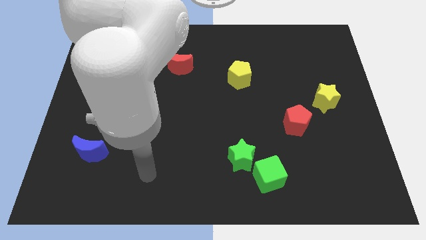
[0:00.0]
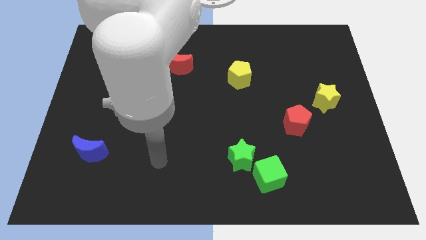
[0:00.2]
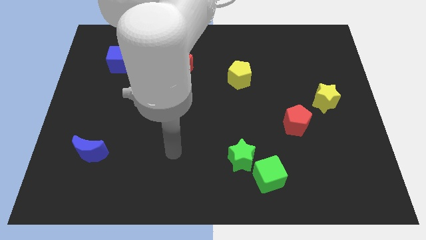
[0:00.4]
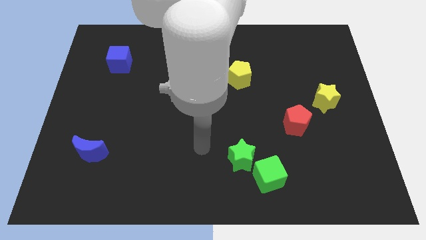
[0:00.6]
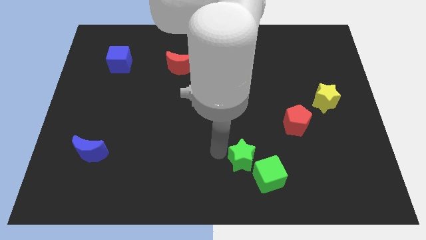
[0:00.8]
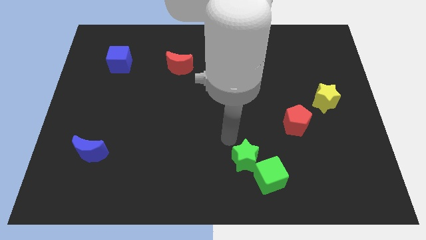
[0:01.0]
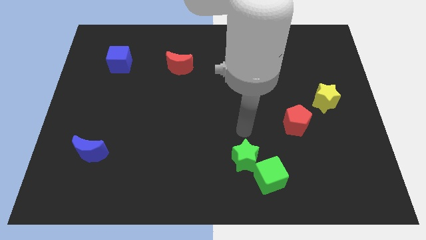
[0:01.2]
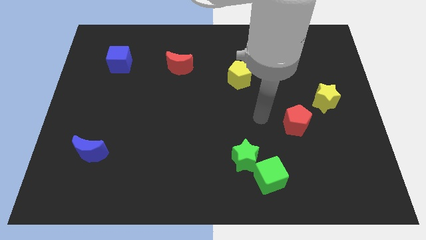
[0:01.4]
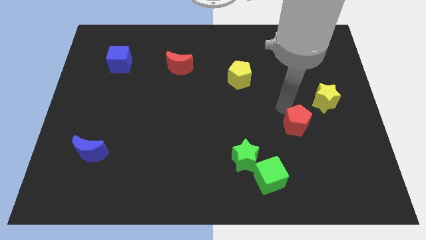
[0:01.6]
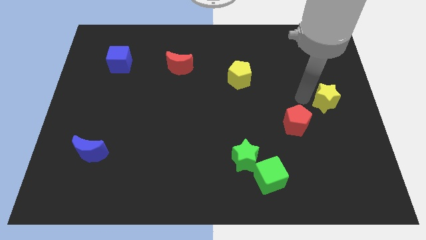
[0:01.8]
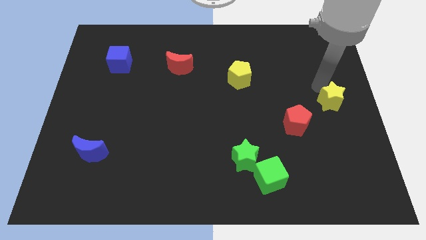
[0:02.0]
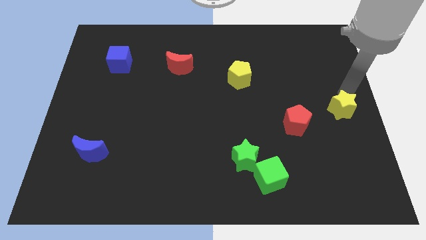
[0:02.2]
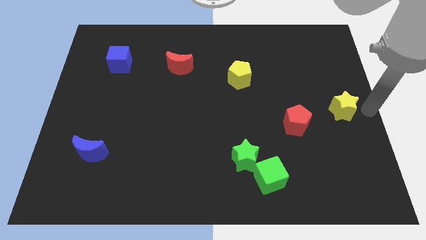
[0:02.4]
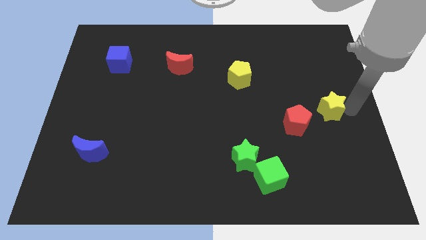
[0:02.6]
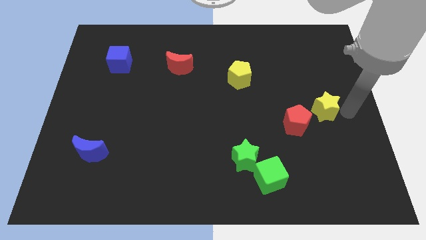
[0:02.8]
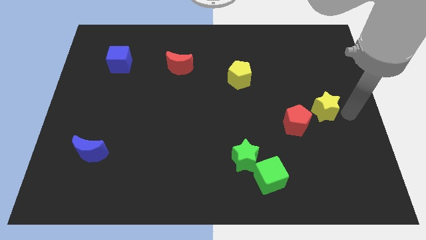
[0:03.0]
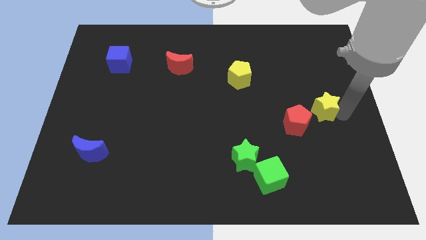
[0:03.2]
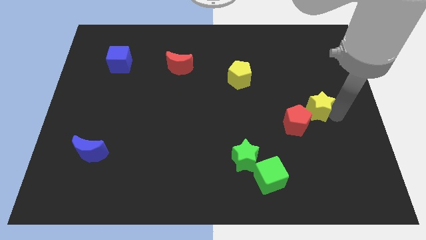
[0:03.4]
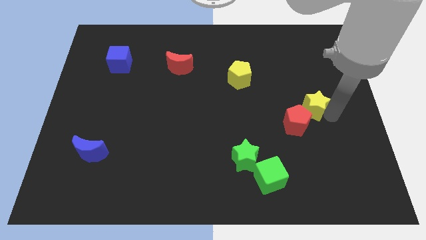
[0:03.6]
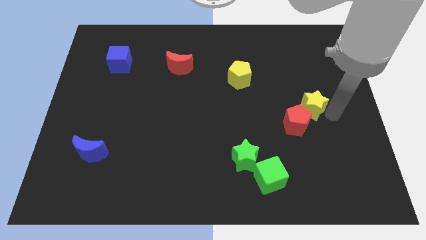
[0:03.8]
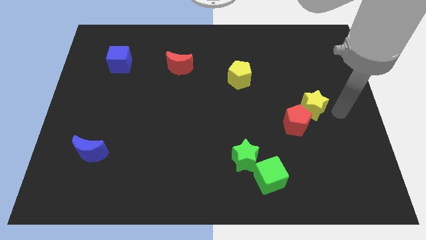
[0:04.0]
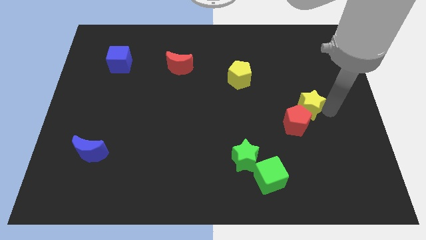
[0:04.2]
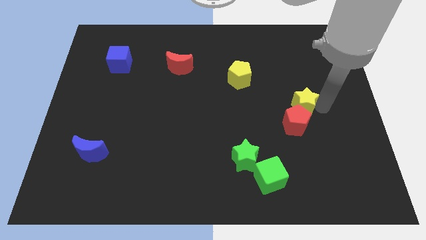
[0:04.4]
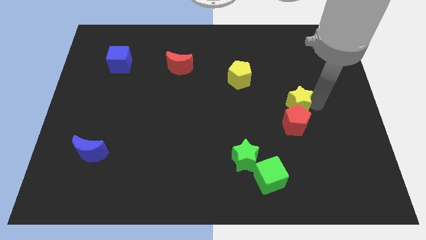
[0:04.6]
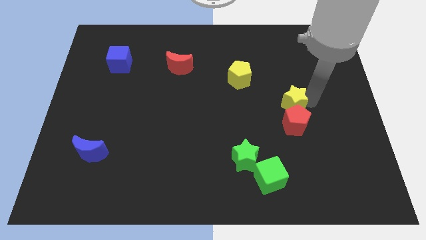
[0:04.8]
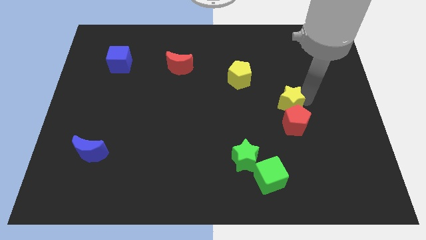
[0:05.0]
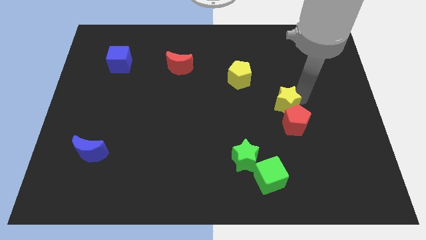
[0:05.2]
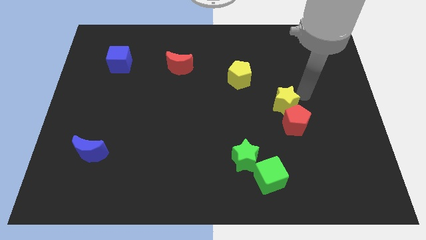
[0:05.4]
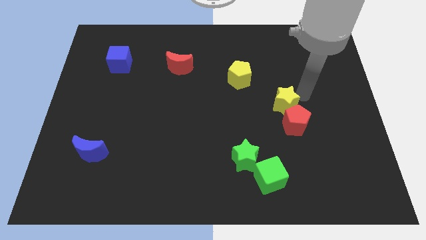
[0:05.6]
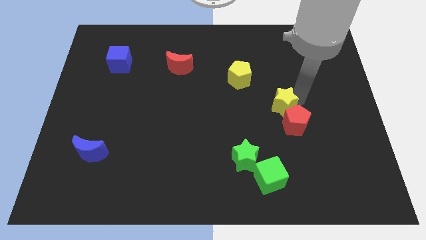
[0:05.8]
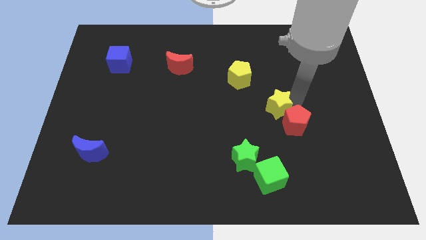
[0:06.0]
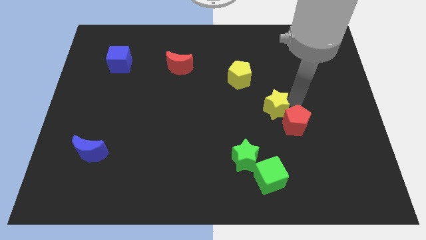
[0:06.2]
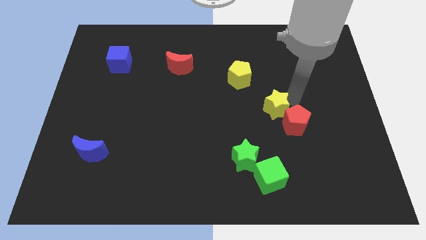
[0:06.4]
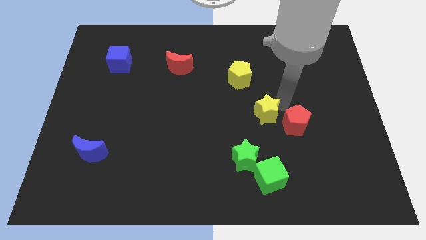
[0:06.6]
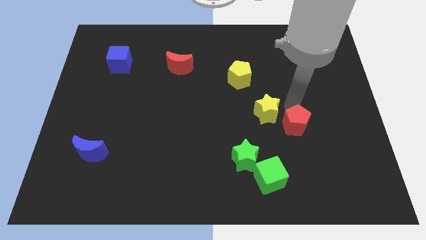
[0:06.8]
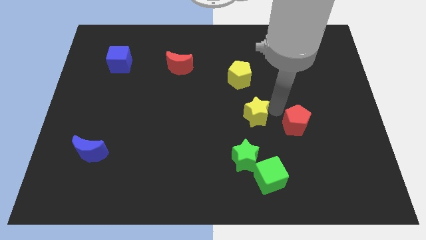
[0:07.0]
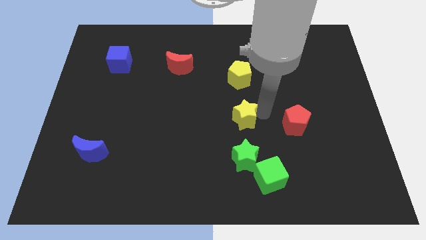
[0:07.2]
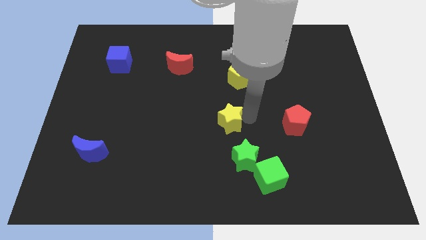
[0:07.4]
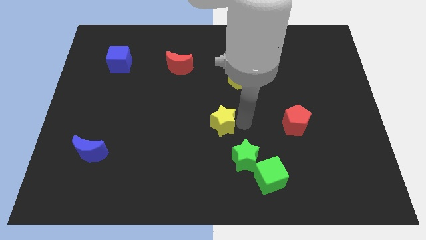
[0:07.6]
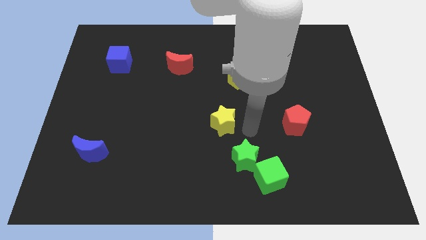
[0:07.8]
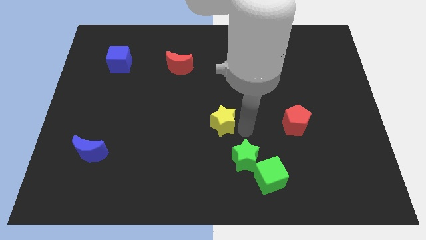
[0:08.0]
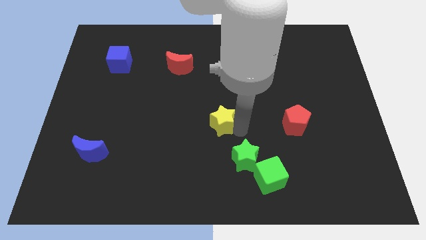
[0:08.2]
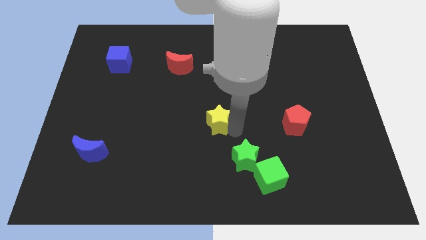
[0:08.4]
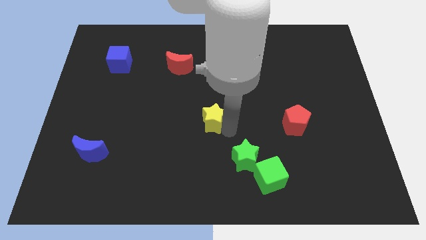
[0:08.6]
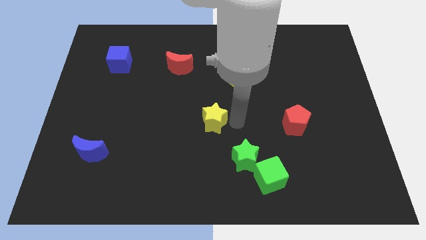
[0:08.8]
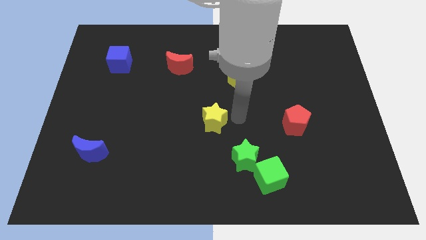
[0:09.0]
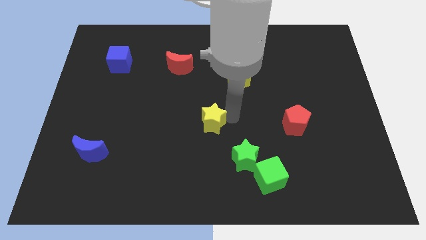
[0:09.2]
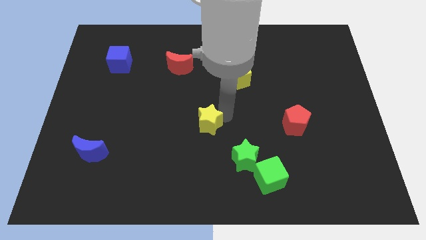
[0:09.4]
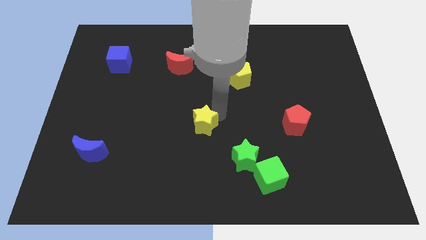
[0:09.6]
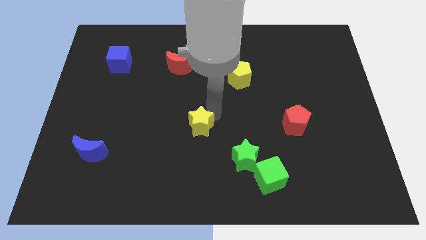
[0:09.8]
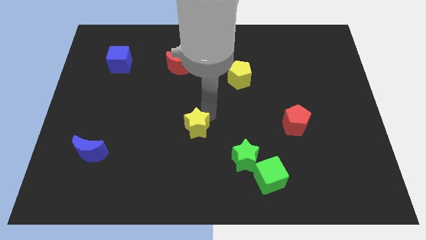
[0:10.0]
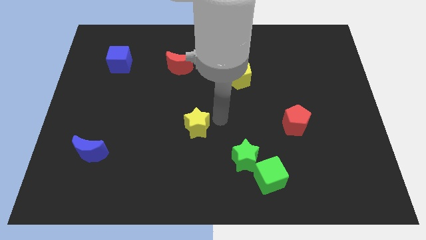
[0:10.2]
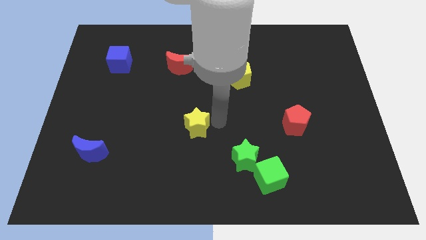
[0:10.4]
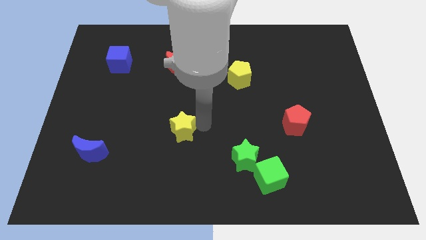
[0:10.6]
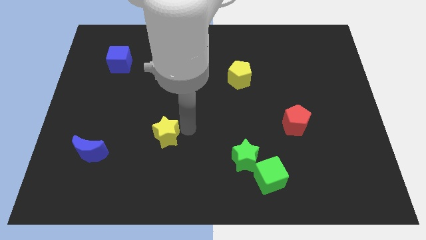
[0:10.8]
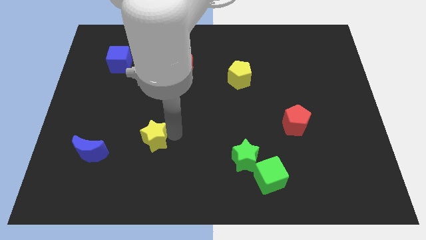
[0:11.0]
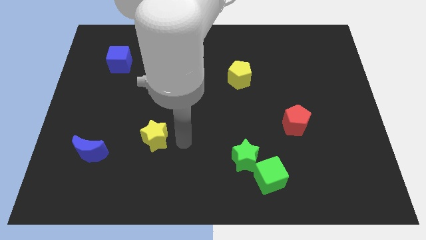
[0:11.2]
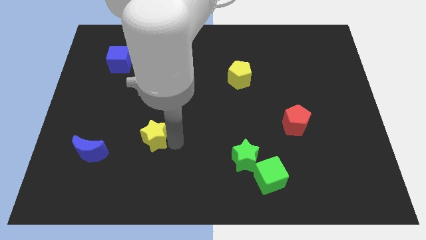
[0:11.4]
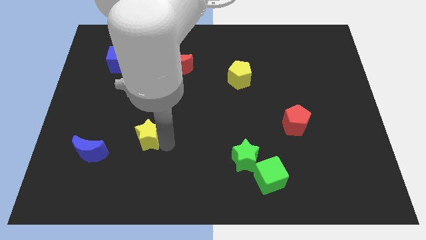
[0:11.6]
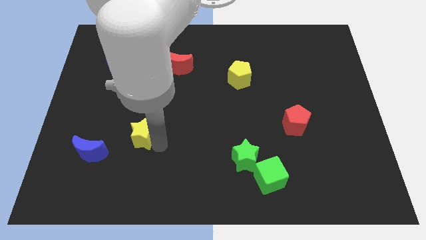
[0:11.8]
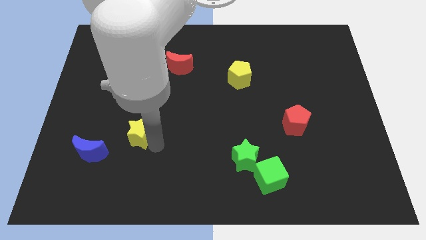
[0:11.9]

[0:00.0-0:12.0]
slide the yellow star diagonally up and to the right of the blue moon

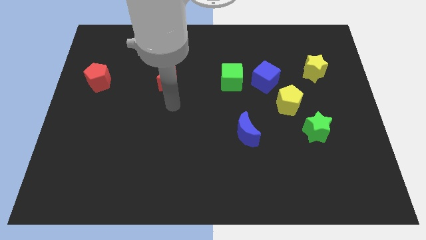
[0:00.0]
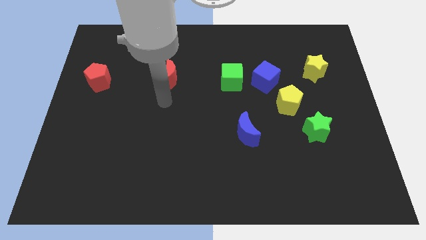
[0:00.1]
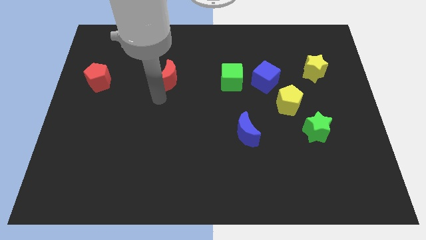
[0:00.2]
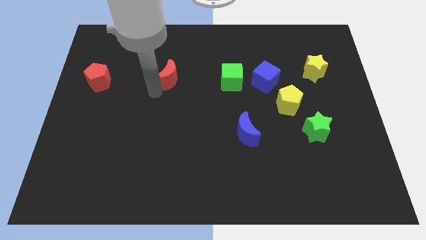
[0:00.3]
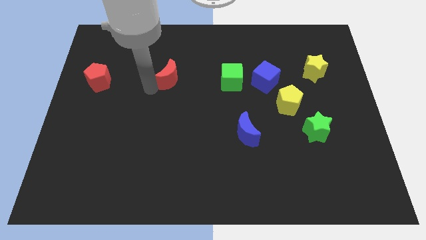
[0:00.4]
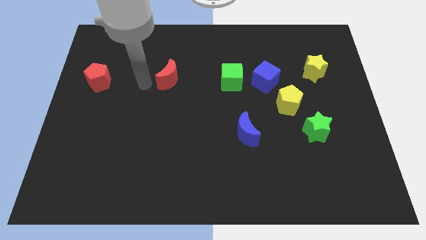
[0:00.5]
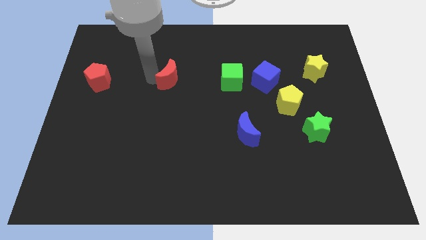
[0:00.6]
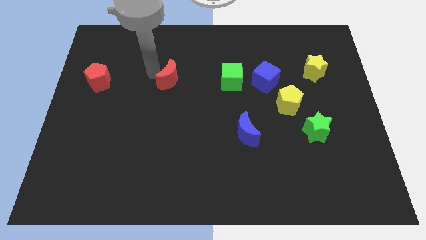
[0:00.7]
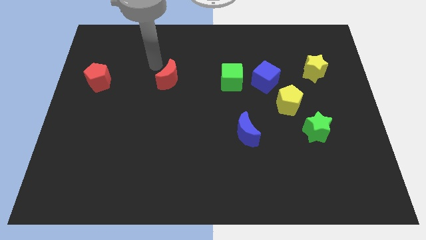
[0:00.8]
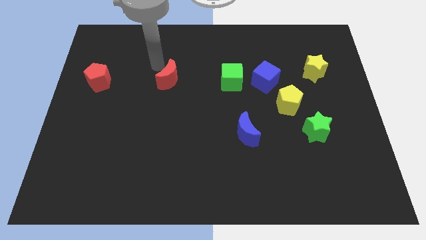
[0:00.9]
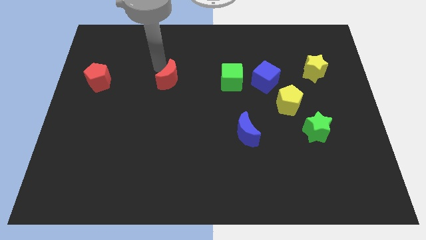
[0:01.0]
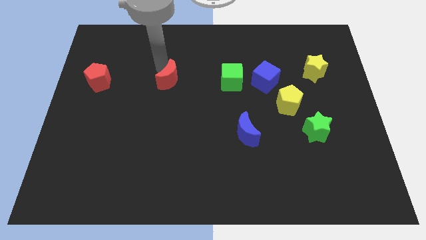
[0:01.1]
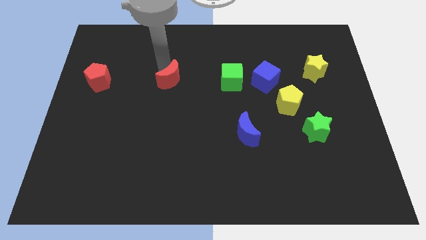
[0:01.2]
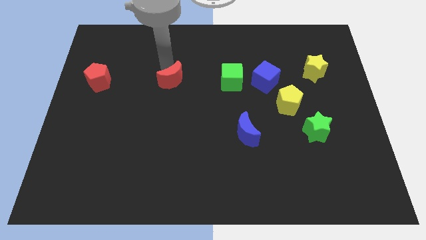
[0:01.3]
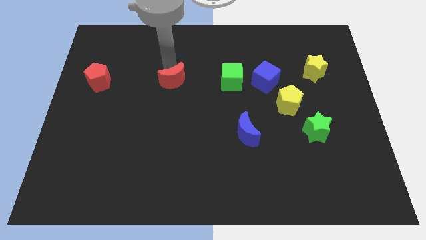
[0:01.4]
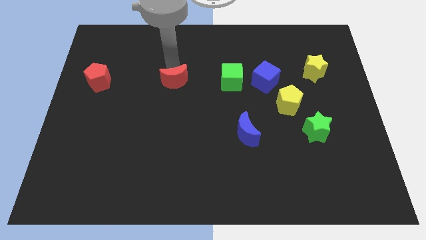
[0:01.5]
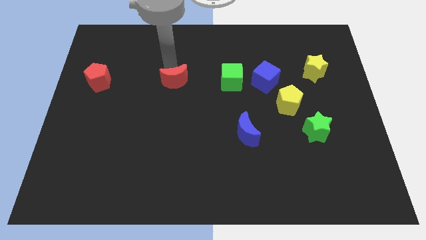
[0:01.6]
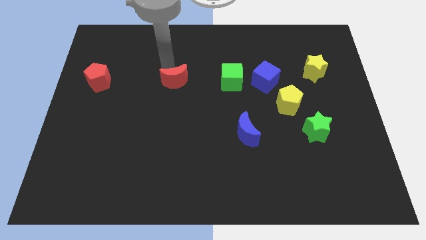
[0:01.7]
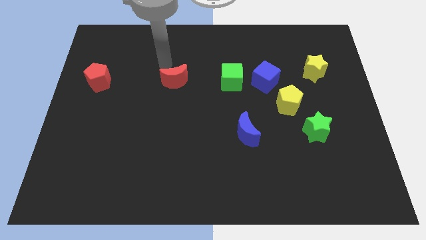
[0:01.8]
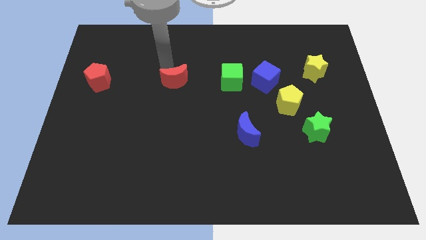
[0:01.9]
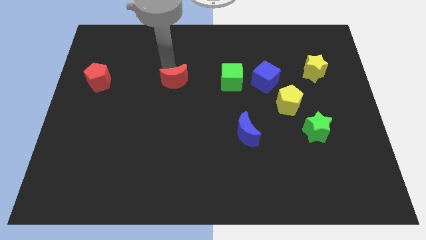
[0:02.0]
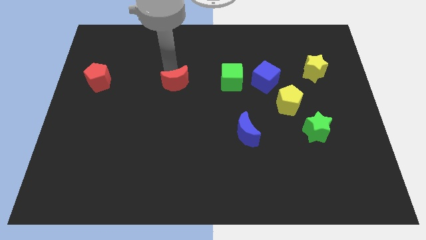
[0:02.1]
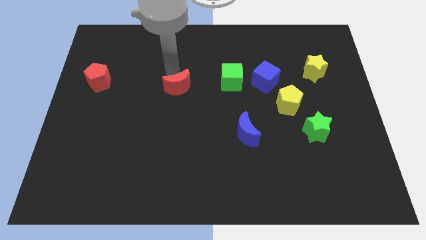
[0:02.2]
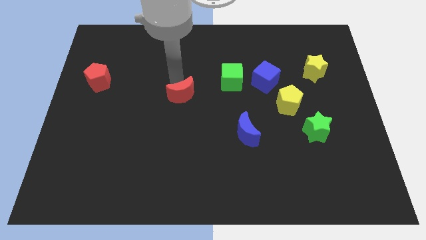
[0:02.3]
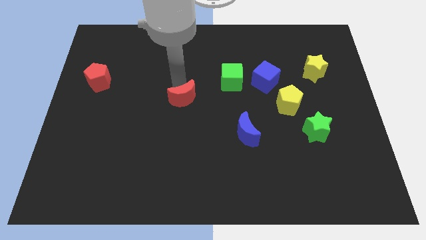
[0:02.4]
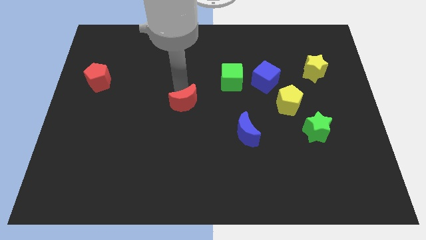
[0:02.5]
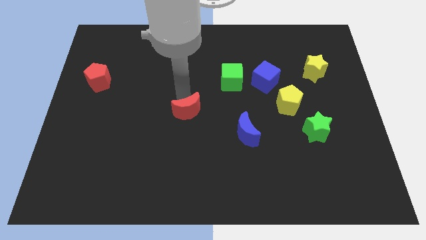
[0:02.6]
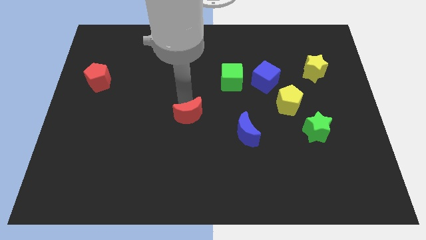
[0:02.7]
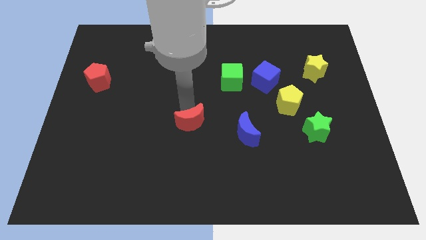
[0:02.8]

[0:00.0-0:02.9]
push the red moon to the left side of the blue moon
